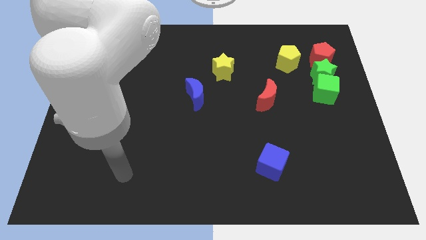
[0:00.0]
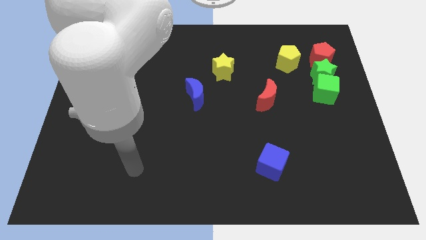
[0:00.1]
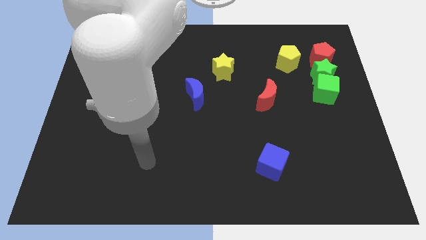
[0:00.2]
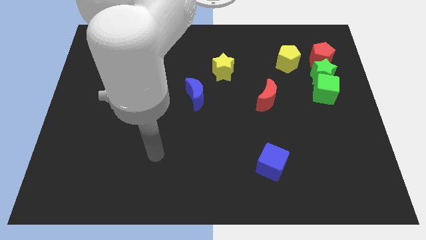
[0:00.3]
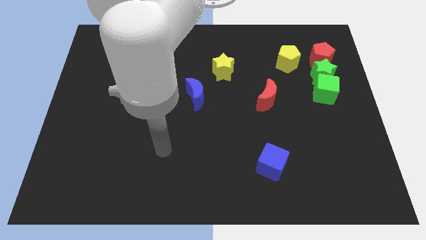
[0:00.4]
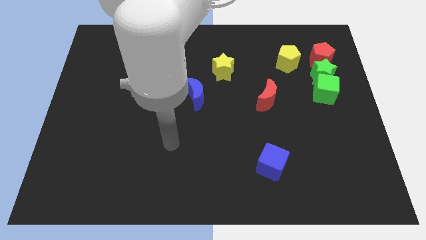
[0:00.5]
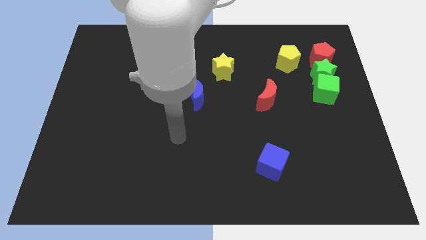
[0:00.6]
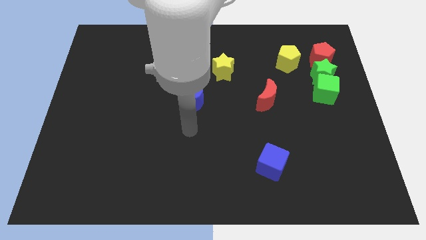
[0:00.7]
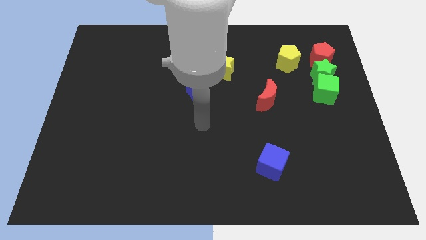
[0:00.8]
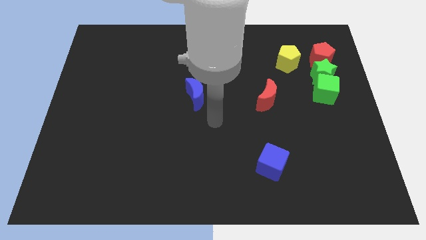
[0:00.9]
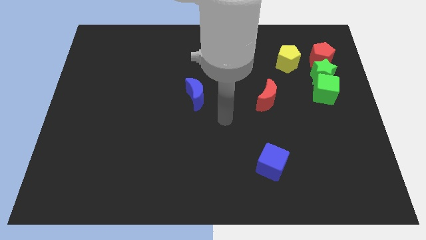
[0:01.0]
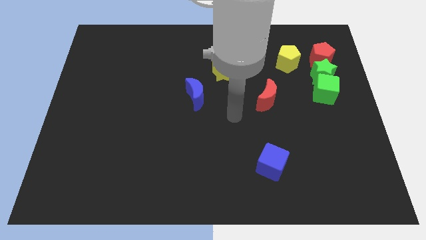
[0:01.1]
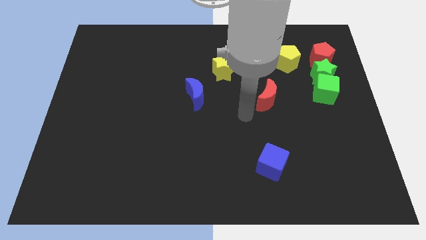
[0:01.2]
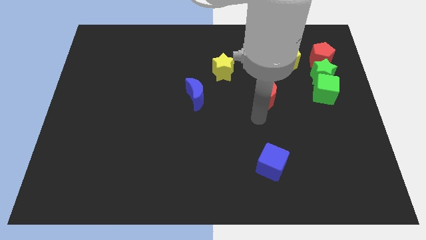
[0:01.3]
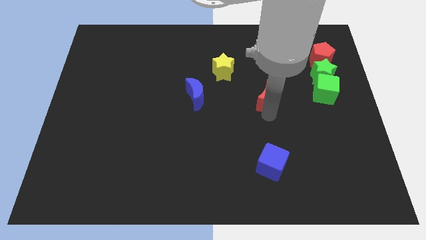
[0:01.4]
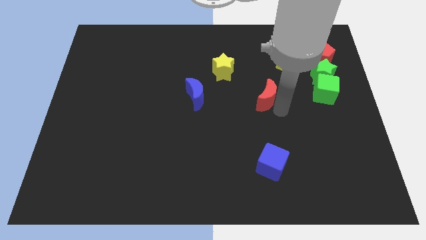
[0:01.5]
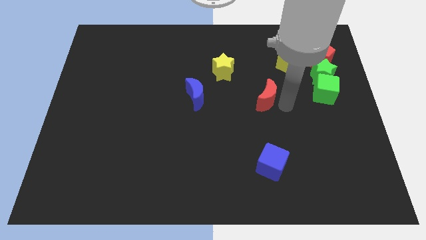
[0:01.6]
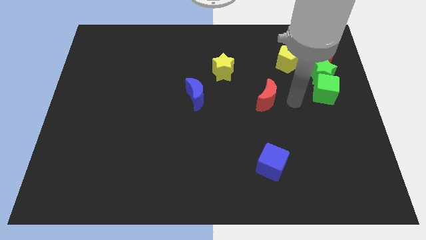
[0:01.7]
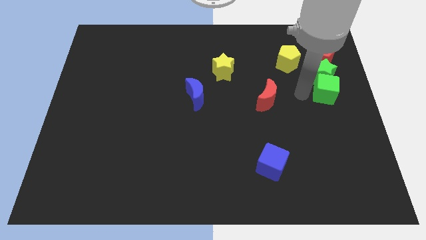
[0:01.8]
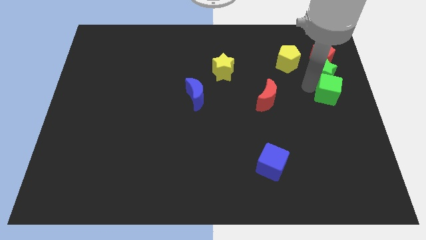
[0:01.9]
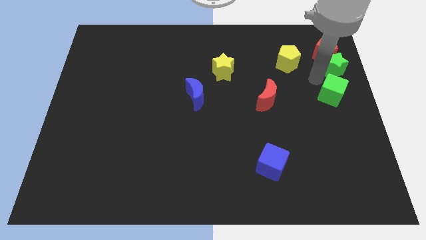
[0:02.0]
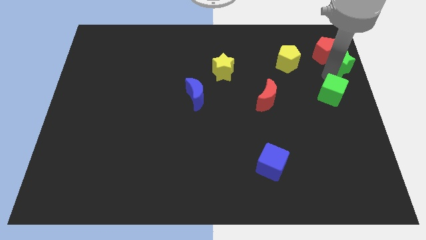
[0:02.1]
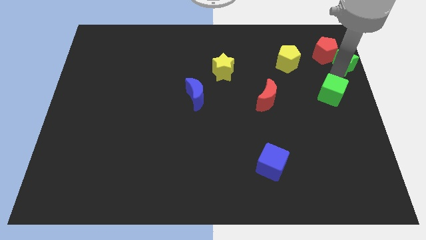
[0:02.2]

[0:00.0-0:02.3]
separate the green cube from the green star

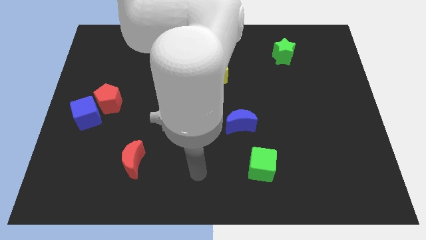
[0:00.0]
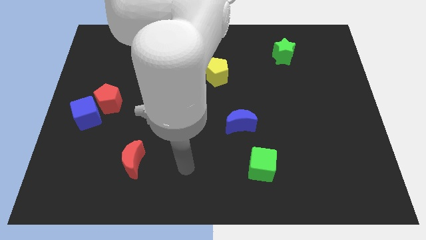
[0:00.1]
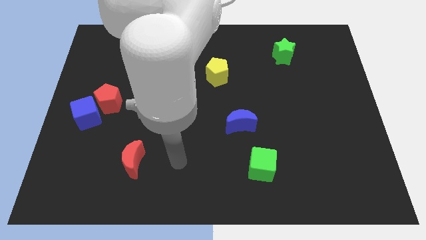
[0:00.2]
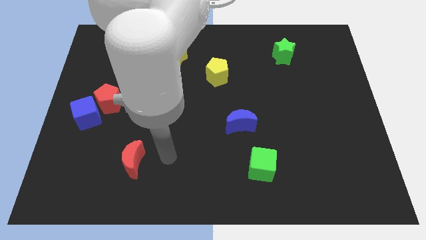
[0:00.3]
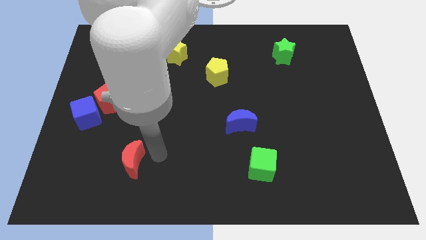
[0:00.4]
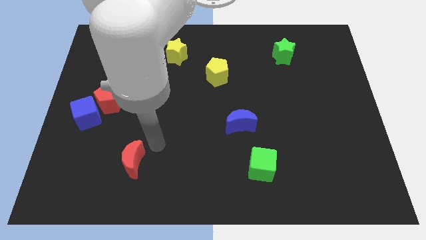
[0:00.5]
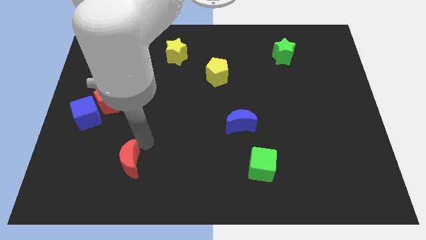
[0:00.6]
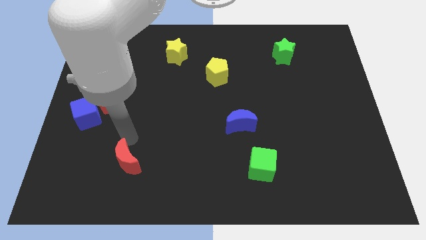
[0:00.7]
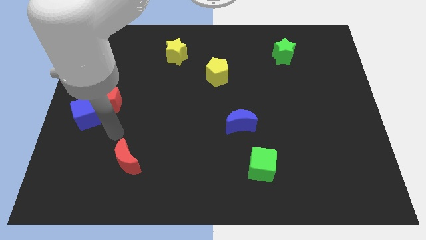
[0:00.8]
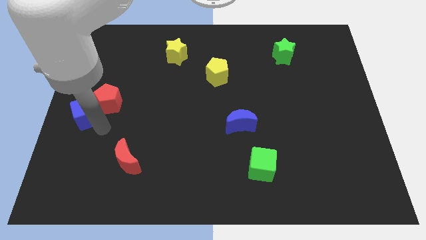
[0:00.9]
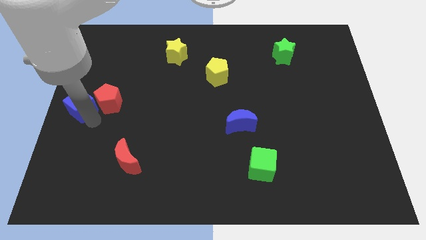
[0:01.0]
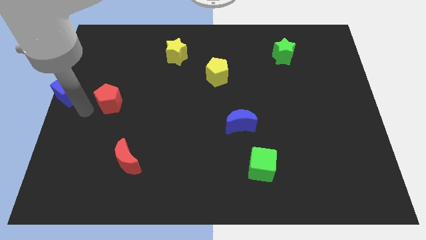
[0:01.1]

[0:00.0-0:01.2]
pull the red pentagon apart from the blue cube

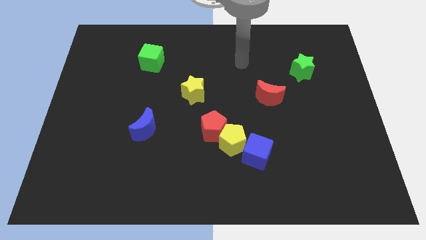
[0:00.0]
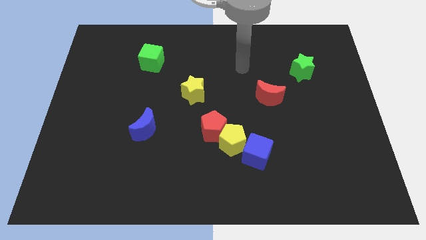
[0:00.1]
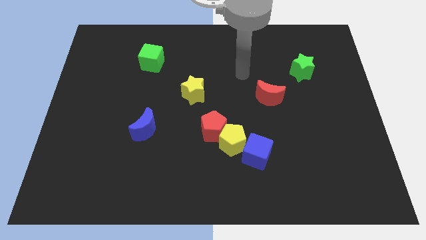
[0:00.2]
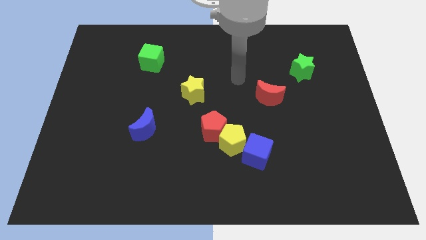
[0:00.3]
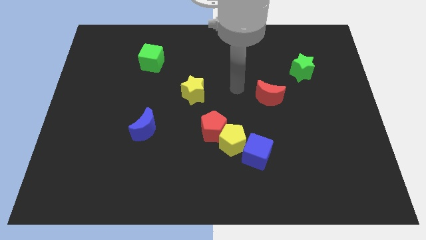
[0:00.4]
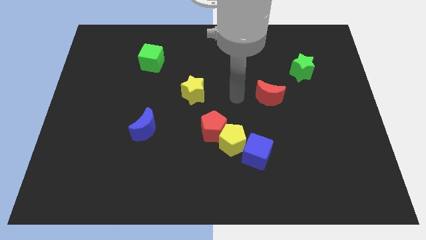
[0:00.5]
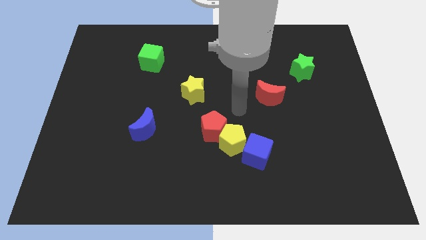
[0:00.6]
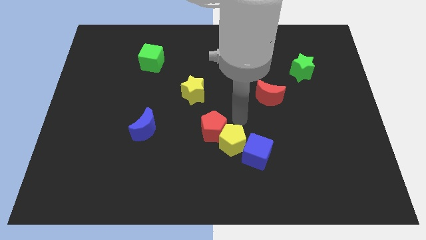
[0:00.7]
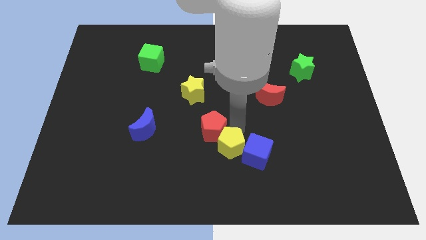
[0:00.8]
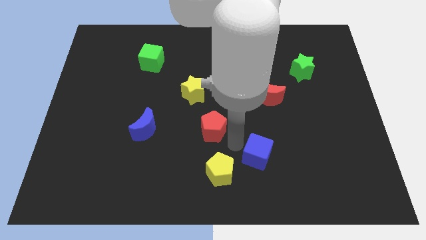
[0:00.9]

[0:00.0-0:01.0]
pull the red pentagon apart from the yellow pentagon

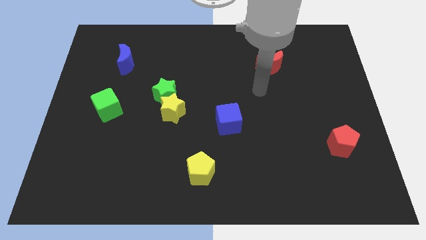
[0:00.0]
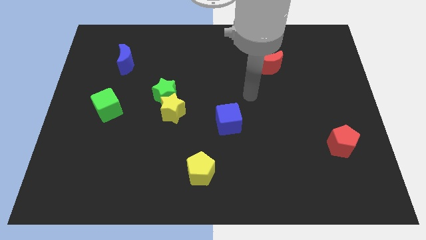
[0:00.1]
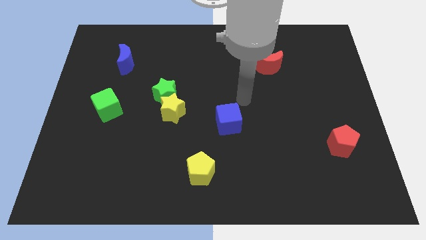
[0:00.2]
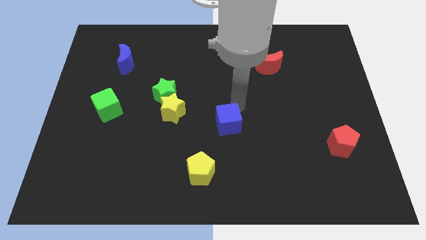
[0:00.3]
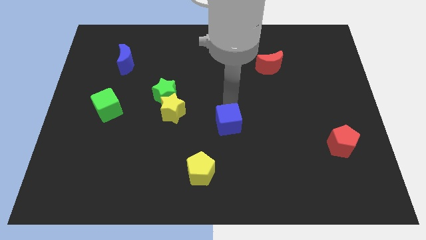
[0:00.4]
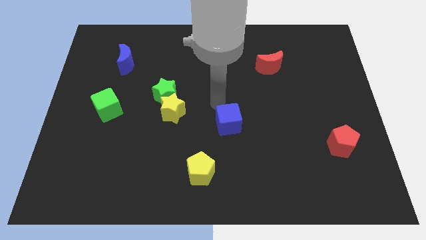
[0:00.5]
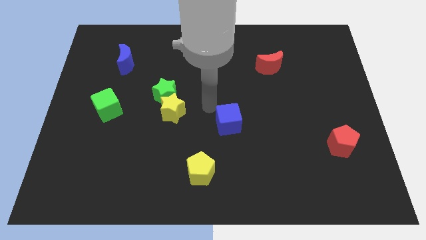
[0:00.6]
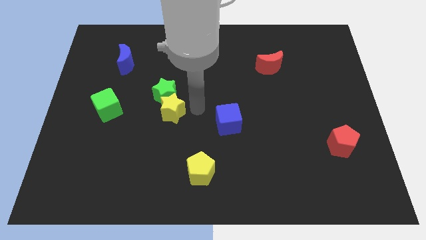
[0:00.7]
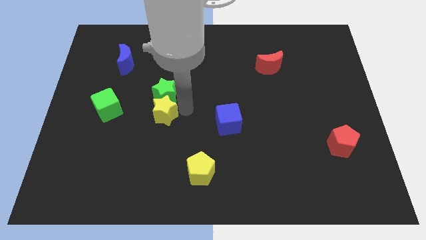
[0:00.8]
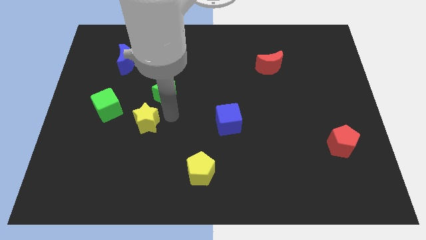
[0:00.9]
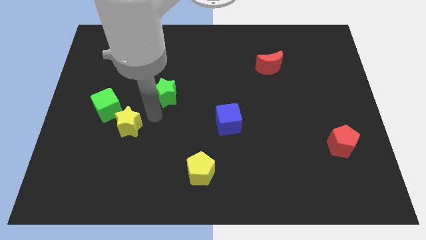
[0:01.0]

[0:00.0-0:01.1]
pull the green star apart from the yellow star

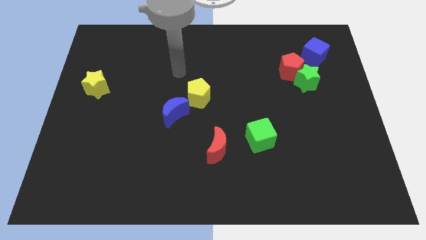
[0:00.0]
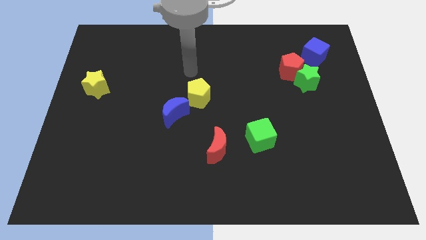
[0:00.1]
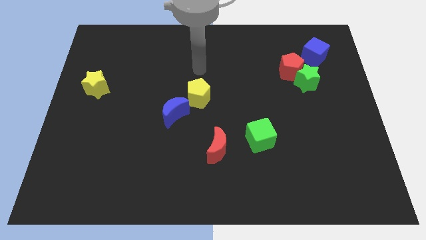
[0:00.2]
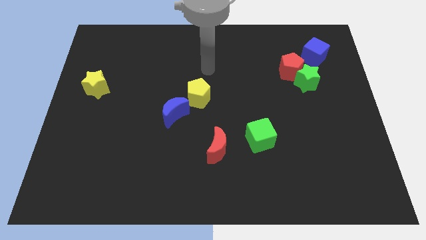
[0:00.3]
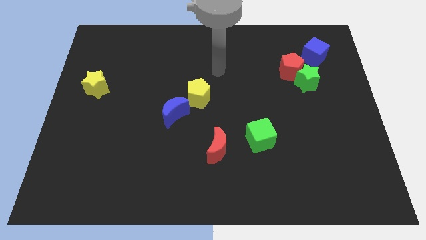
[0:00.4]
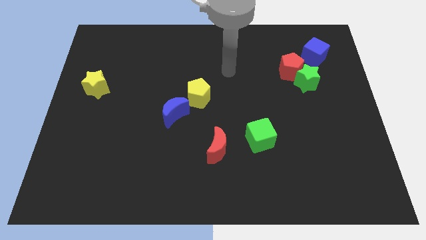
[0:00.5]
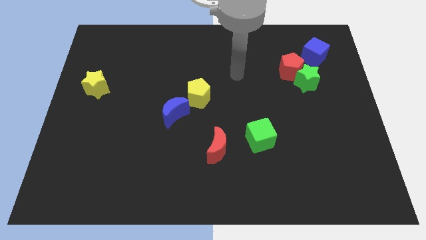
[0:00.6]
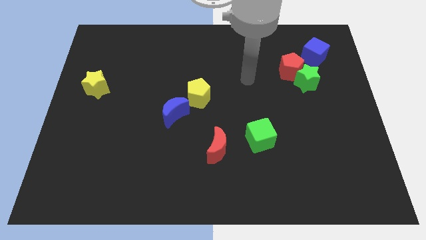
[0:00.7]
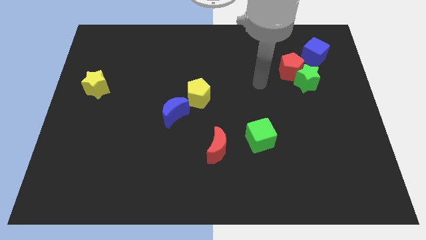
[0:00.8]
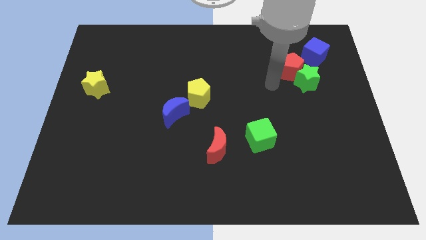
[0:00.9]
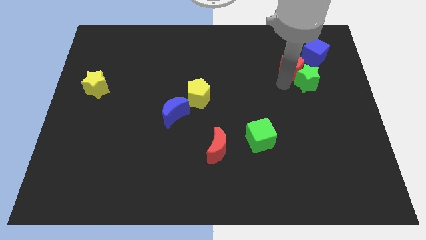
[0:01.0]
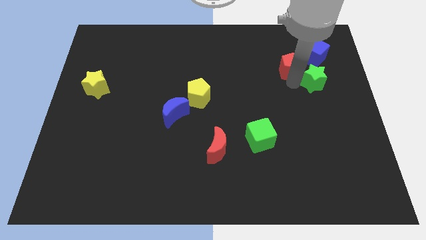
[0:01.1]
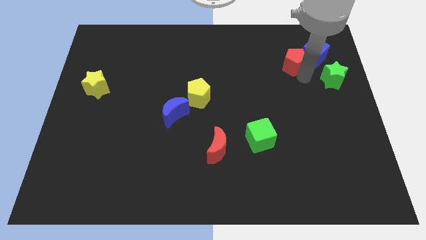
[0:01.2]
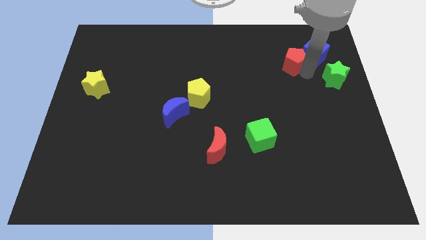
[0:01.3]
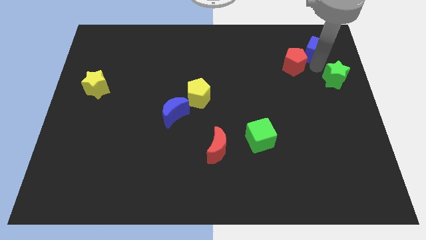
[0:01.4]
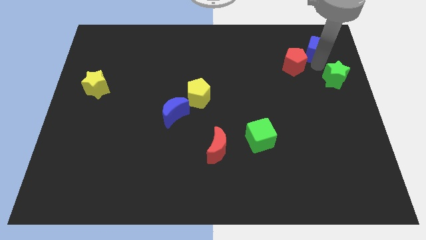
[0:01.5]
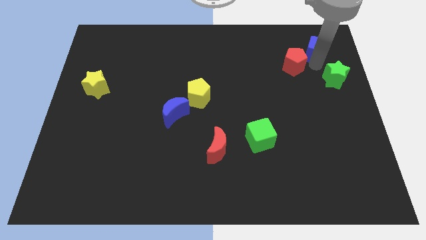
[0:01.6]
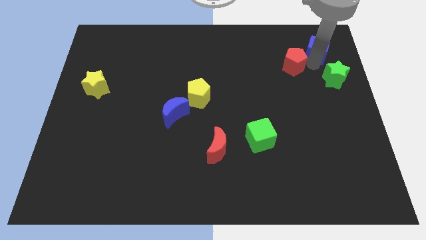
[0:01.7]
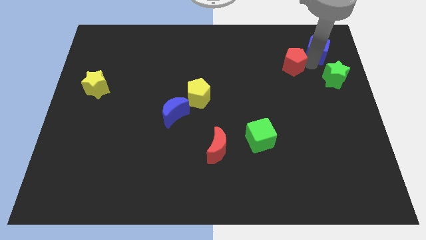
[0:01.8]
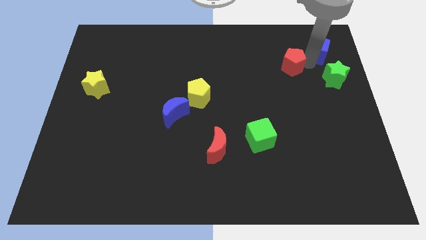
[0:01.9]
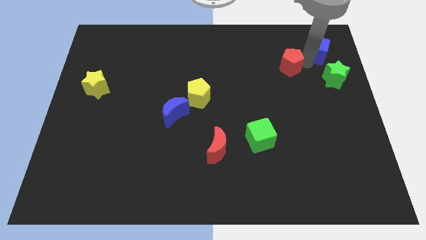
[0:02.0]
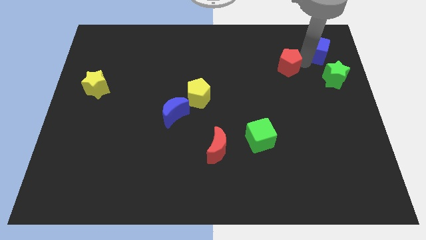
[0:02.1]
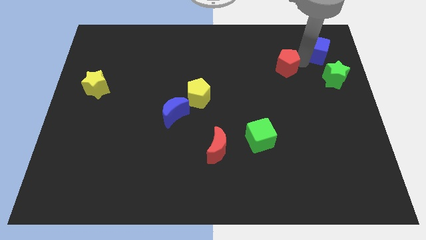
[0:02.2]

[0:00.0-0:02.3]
move the red pentagon away from the green star and blue cube

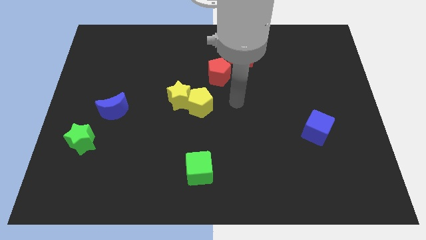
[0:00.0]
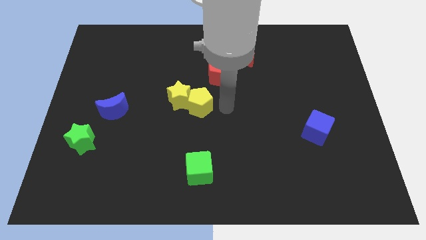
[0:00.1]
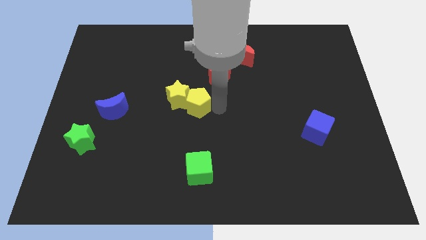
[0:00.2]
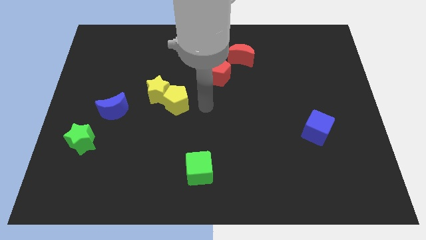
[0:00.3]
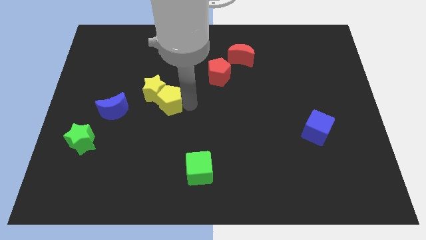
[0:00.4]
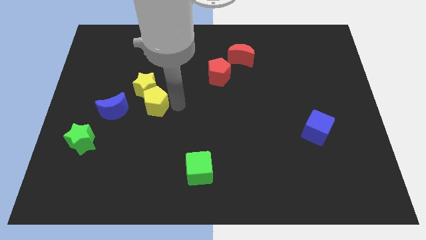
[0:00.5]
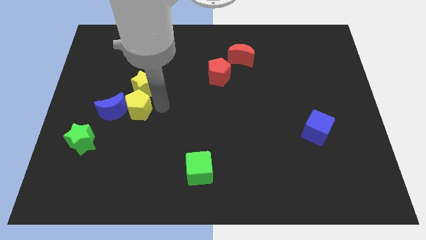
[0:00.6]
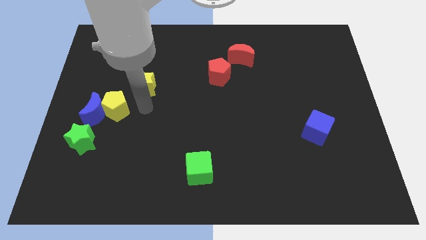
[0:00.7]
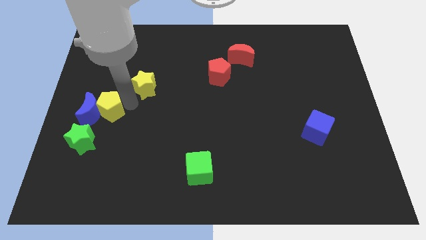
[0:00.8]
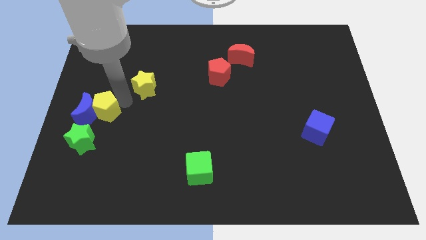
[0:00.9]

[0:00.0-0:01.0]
pull the yellow star apart from the yellow pentagon

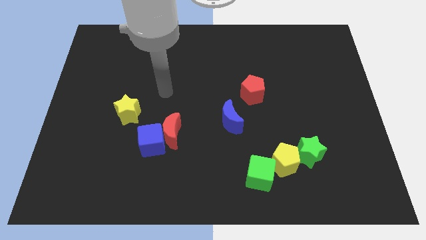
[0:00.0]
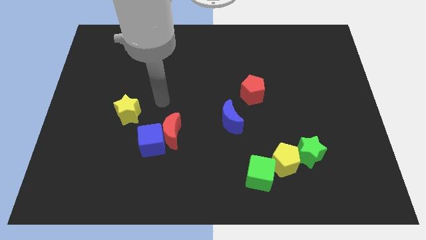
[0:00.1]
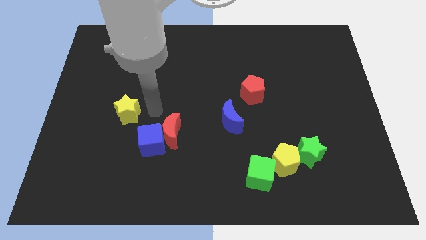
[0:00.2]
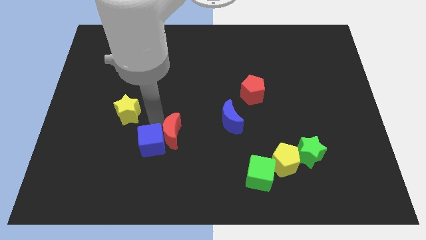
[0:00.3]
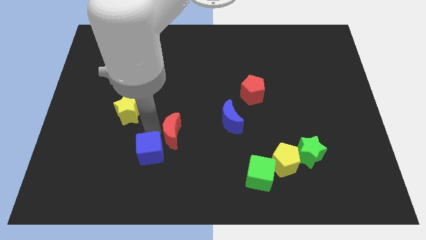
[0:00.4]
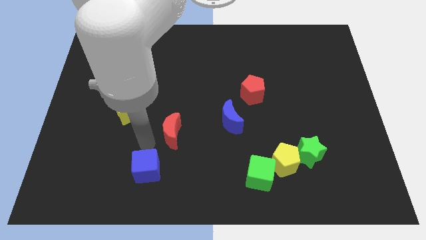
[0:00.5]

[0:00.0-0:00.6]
separate the red moon from the blue cube
